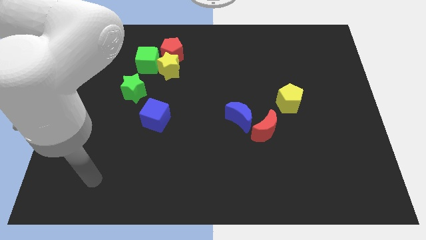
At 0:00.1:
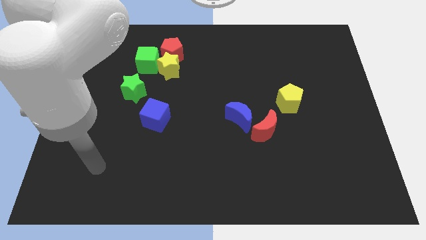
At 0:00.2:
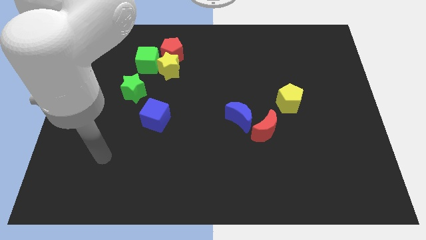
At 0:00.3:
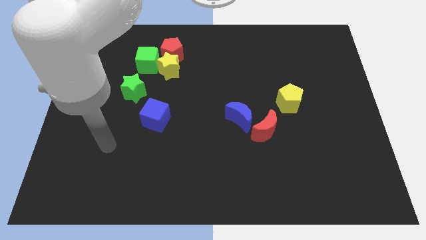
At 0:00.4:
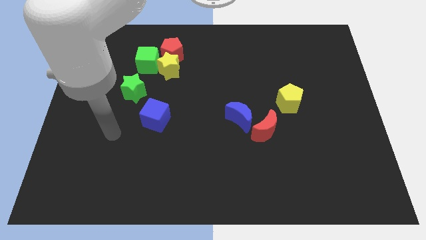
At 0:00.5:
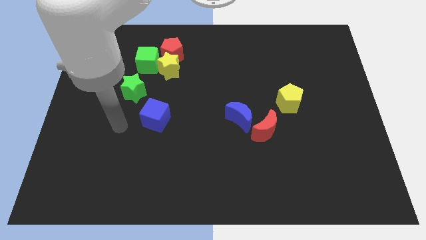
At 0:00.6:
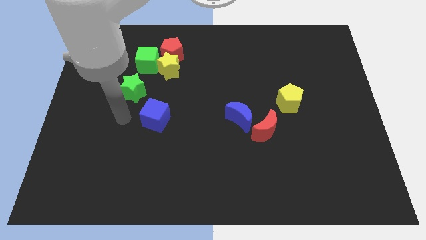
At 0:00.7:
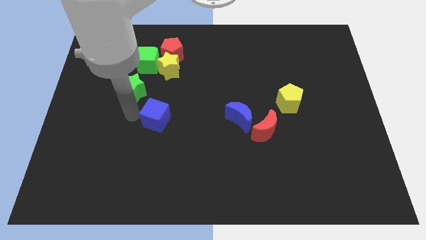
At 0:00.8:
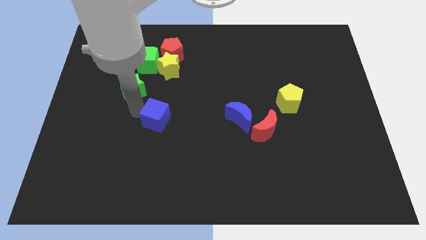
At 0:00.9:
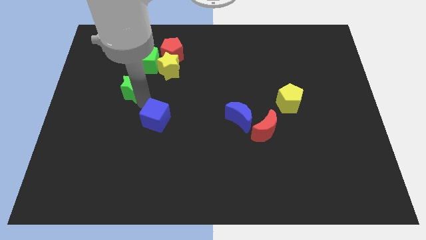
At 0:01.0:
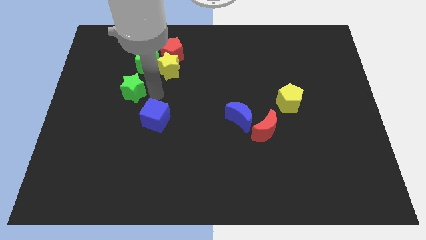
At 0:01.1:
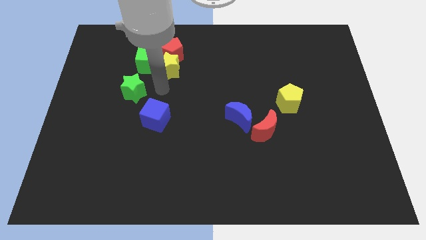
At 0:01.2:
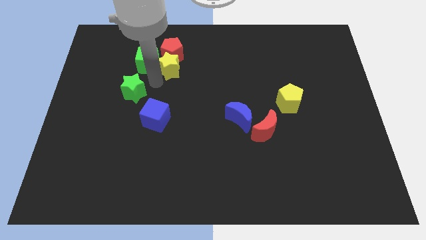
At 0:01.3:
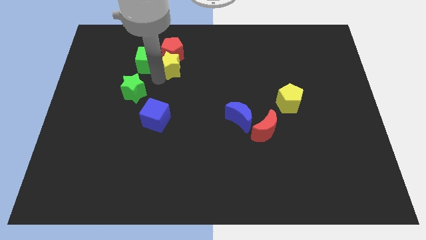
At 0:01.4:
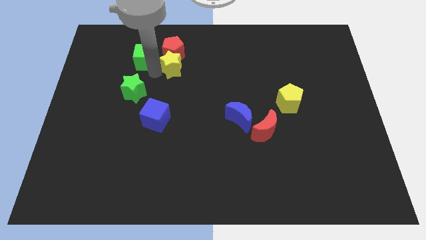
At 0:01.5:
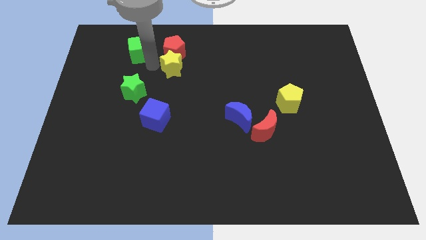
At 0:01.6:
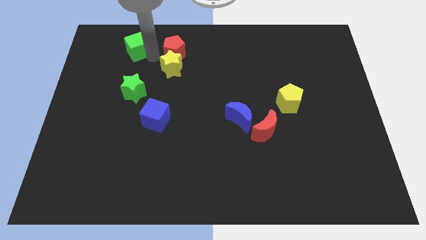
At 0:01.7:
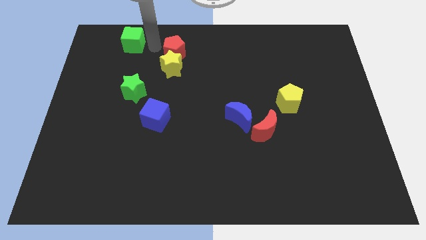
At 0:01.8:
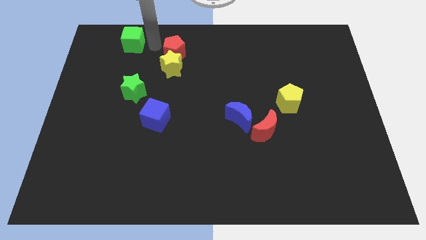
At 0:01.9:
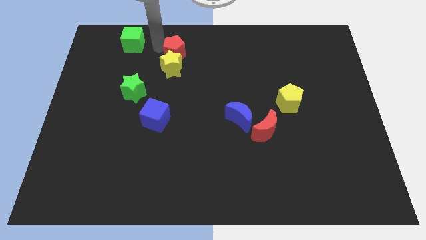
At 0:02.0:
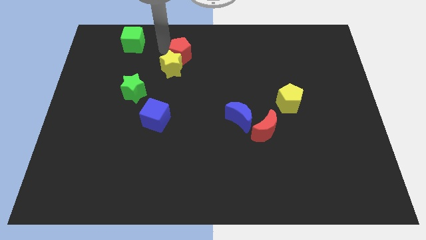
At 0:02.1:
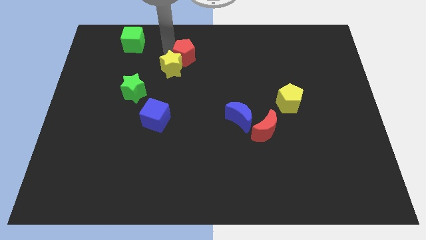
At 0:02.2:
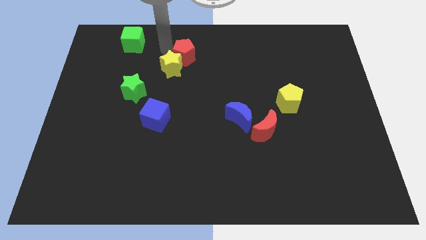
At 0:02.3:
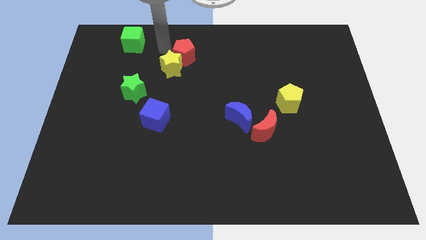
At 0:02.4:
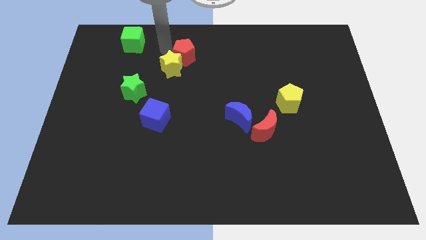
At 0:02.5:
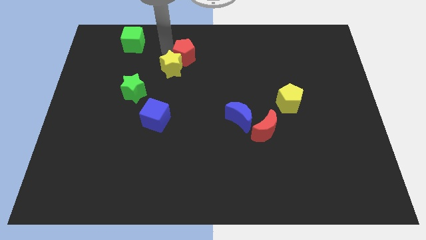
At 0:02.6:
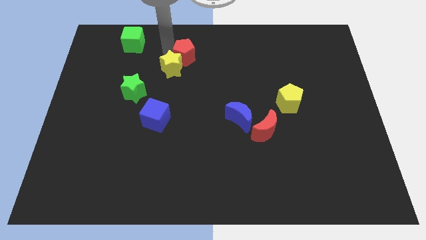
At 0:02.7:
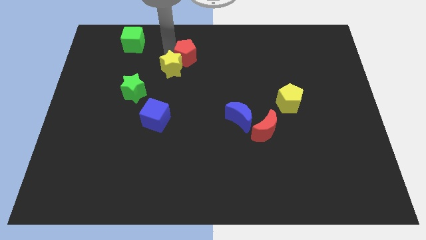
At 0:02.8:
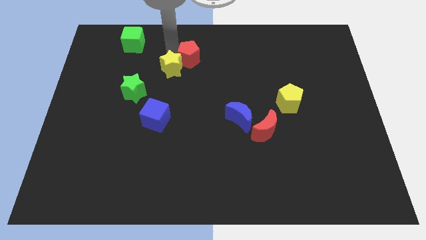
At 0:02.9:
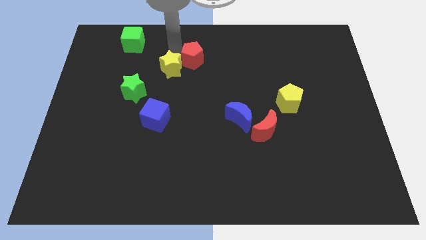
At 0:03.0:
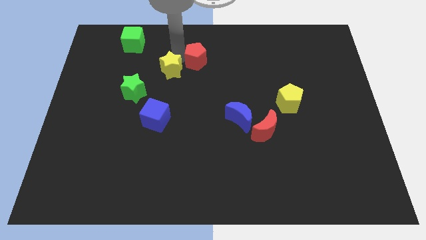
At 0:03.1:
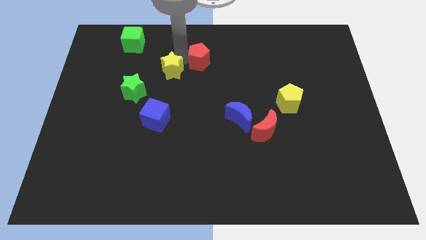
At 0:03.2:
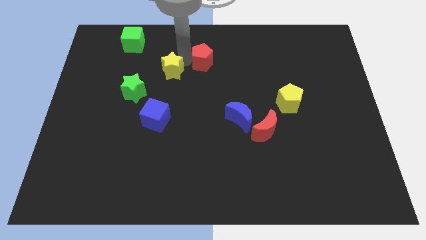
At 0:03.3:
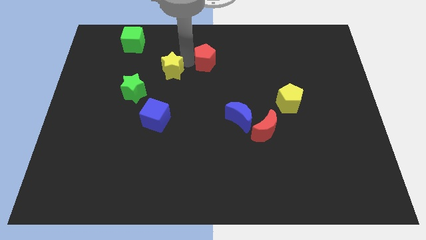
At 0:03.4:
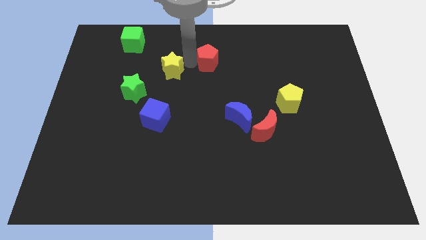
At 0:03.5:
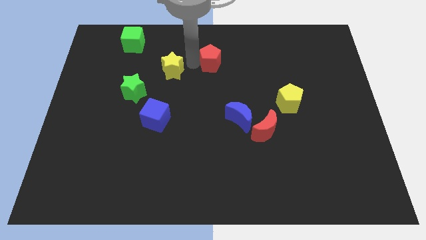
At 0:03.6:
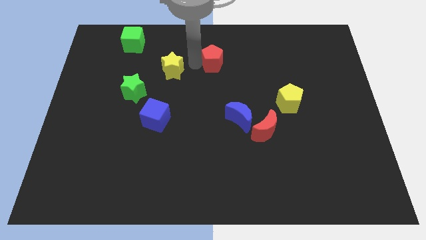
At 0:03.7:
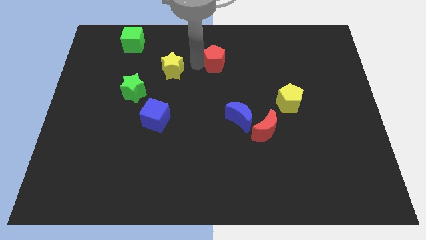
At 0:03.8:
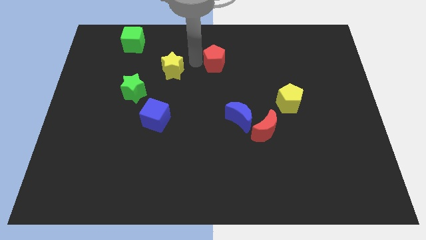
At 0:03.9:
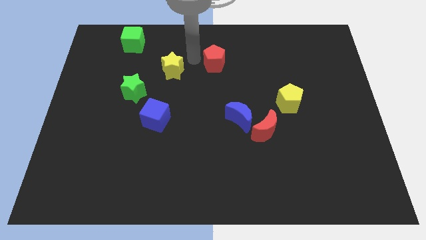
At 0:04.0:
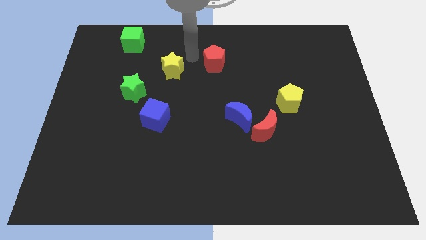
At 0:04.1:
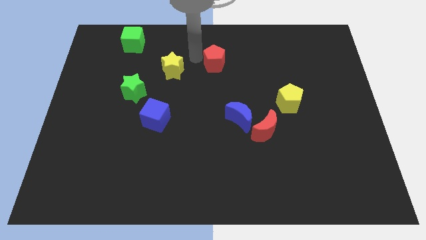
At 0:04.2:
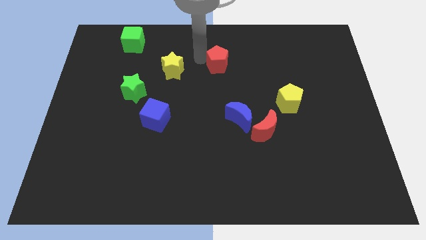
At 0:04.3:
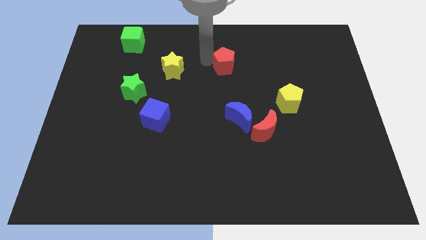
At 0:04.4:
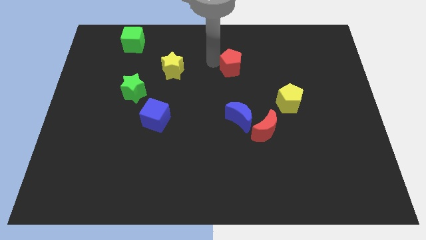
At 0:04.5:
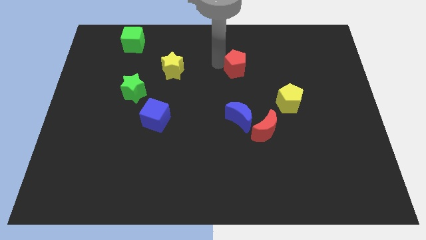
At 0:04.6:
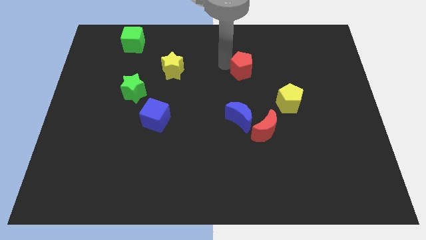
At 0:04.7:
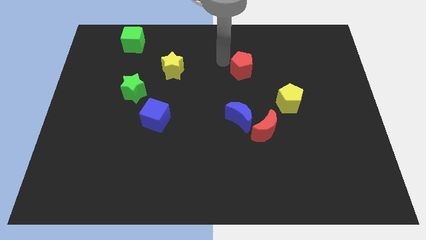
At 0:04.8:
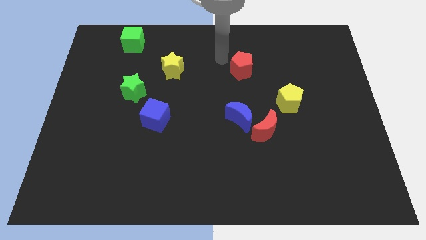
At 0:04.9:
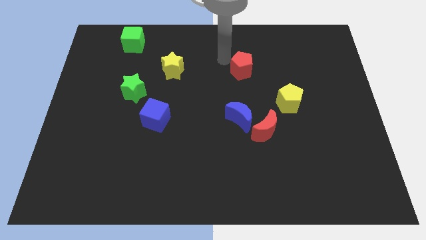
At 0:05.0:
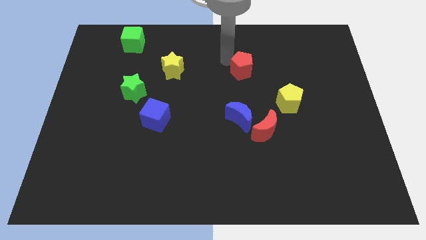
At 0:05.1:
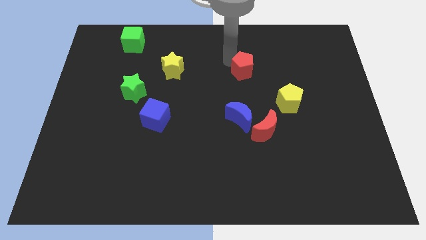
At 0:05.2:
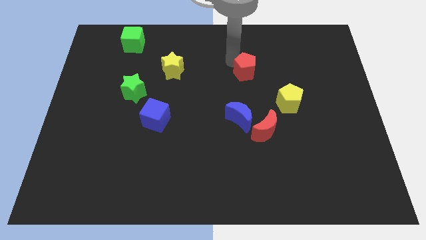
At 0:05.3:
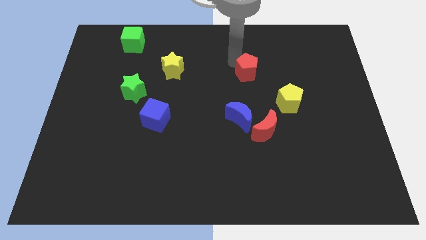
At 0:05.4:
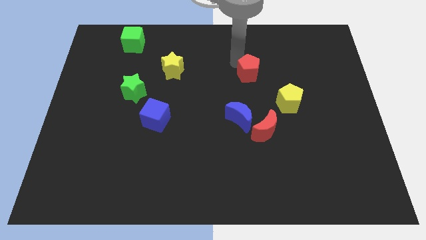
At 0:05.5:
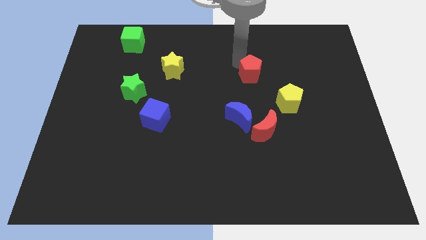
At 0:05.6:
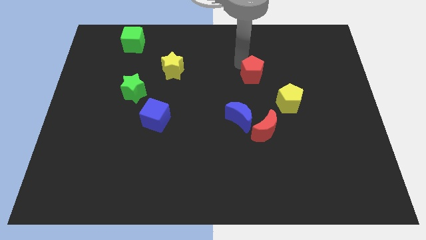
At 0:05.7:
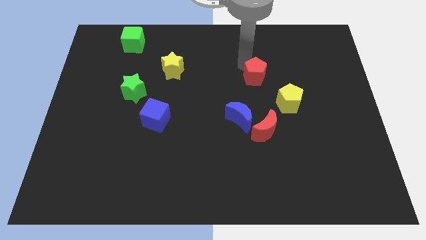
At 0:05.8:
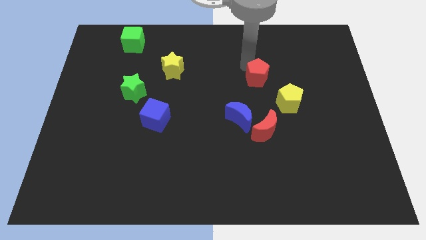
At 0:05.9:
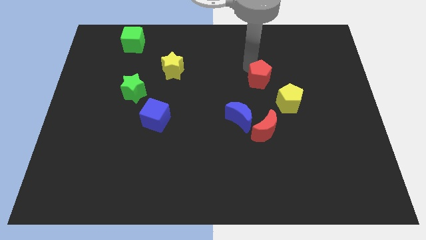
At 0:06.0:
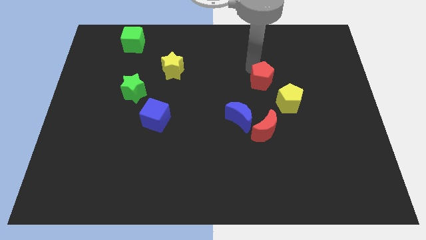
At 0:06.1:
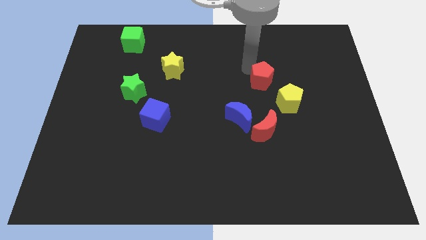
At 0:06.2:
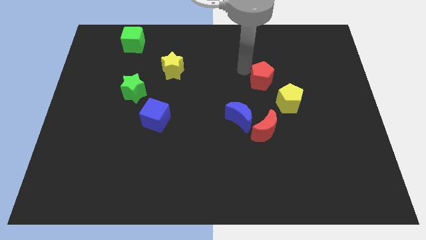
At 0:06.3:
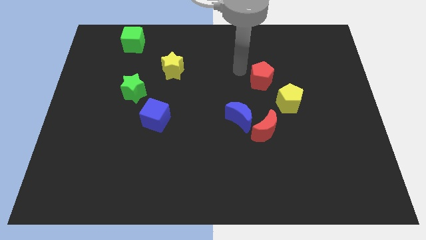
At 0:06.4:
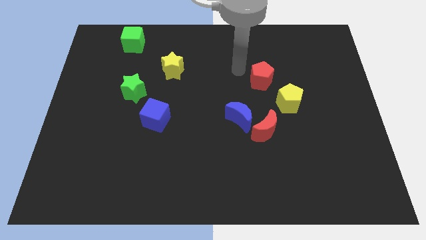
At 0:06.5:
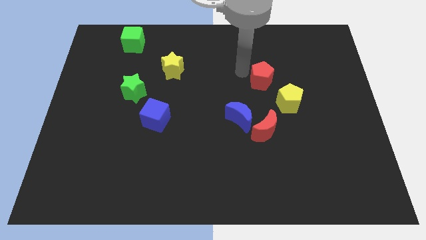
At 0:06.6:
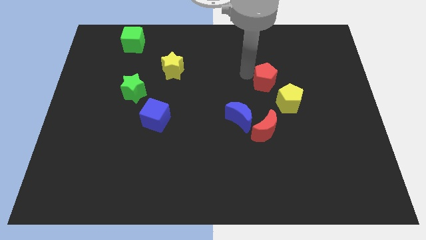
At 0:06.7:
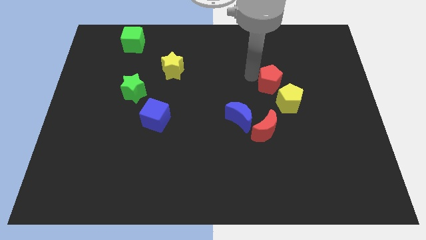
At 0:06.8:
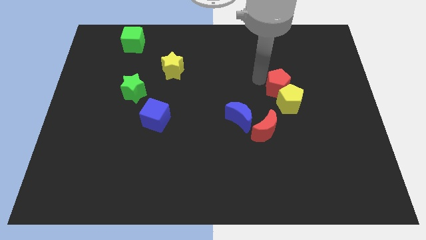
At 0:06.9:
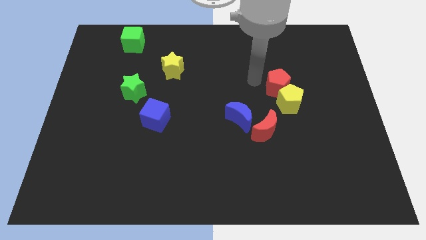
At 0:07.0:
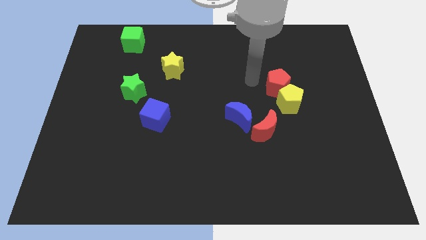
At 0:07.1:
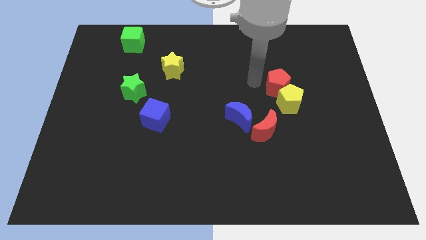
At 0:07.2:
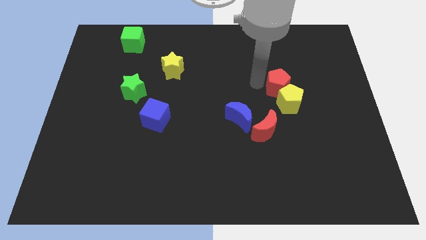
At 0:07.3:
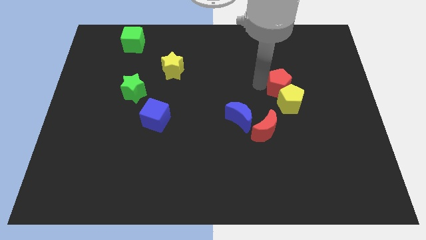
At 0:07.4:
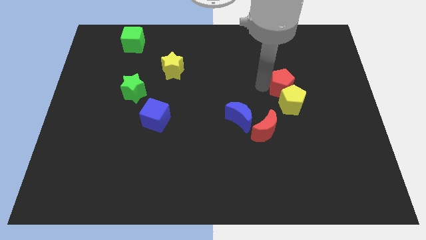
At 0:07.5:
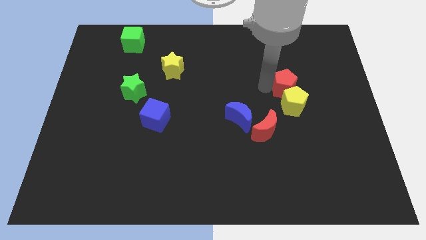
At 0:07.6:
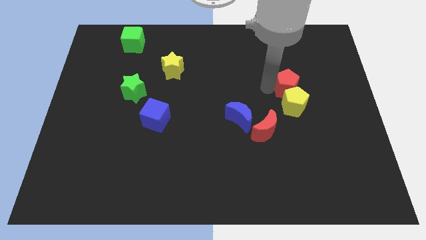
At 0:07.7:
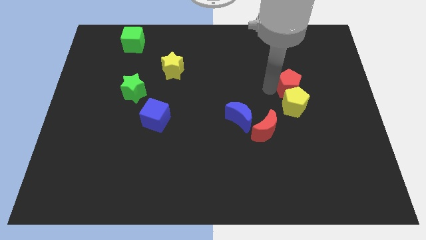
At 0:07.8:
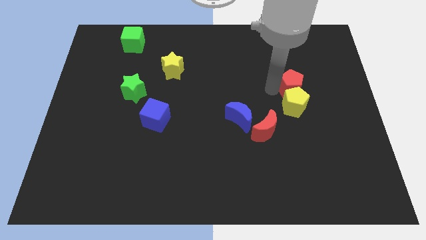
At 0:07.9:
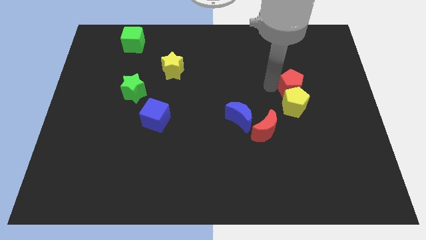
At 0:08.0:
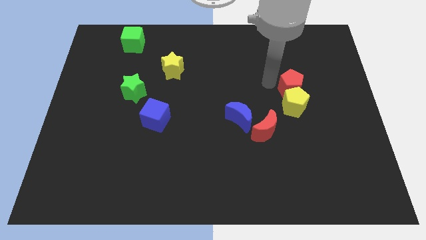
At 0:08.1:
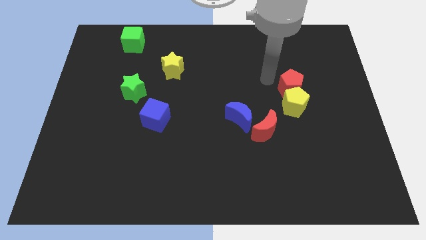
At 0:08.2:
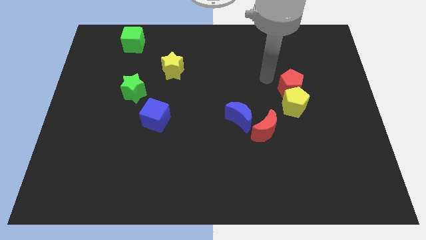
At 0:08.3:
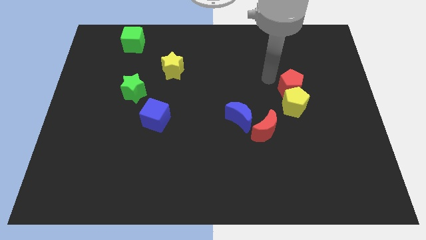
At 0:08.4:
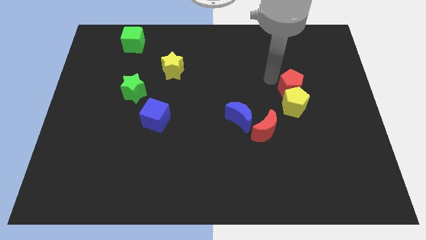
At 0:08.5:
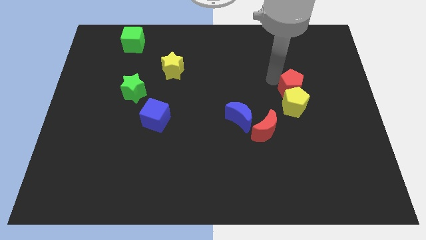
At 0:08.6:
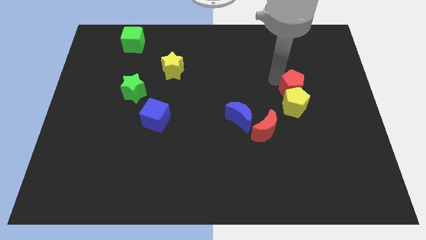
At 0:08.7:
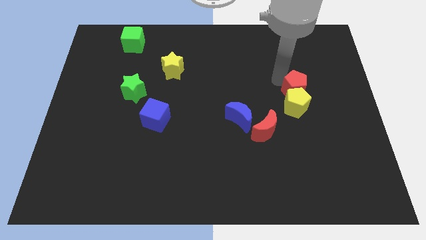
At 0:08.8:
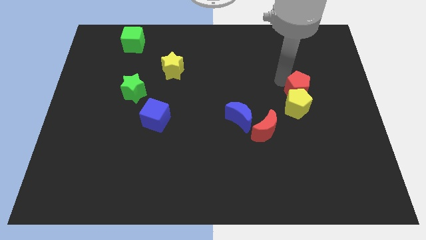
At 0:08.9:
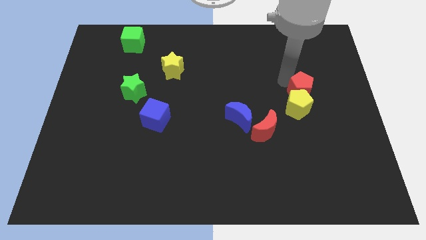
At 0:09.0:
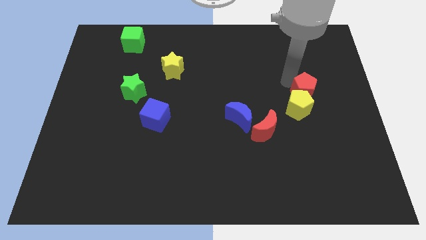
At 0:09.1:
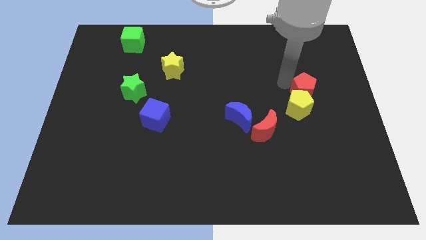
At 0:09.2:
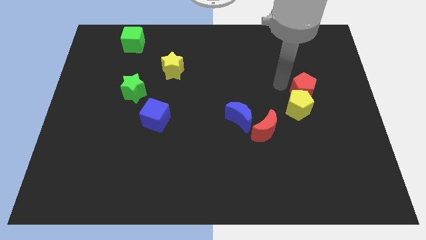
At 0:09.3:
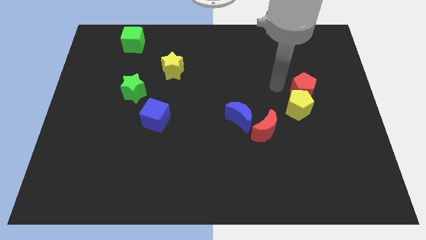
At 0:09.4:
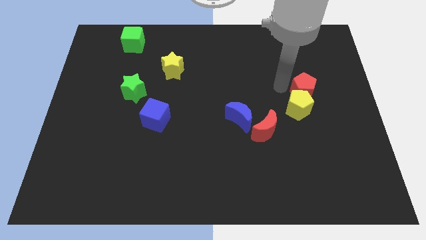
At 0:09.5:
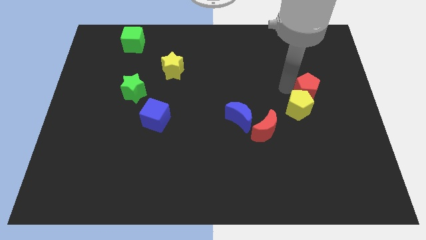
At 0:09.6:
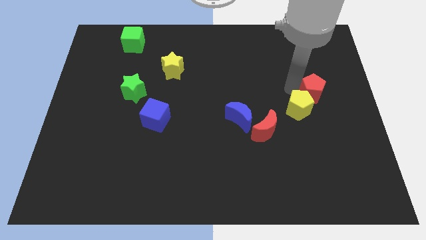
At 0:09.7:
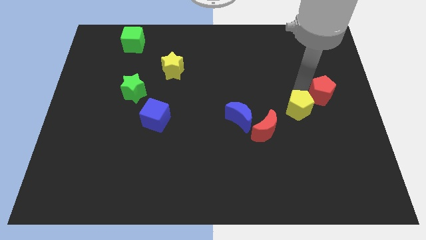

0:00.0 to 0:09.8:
slide the red pentagon to the right side
